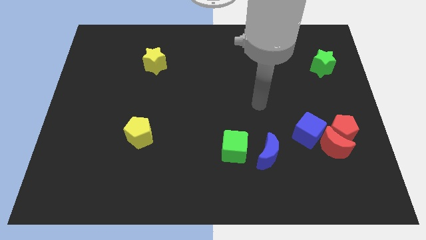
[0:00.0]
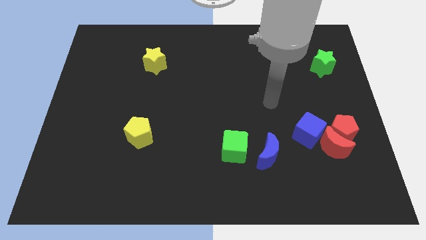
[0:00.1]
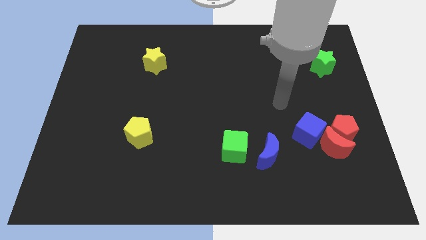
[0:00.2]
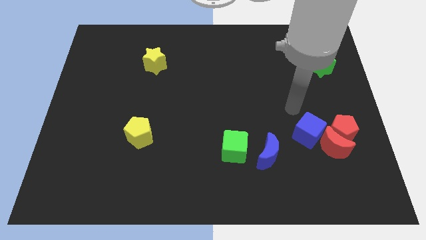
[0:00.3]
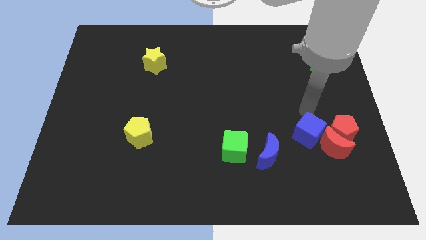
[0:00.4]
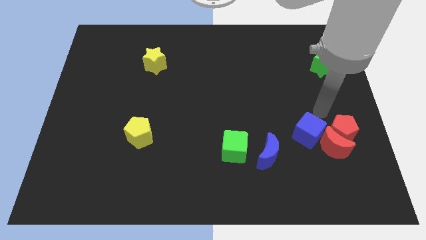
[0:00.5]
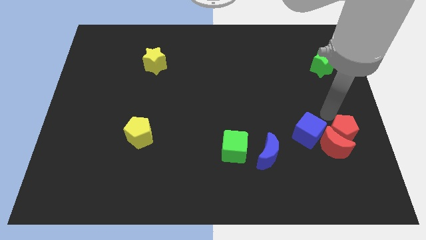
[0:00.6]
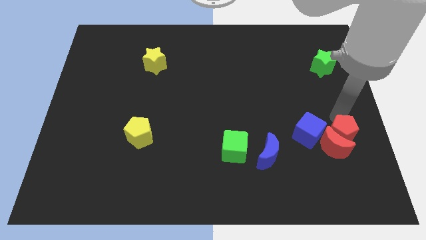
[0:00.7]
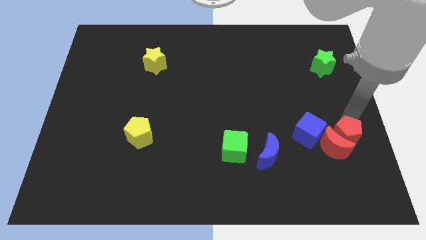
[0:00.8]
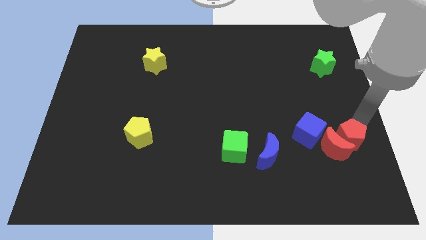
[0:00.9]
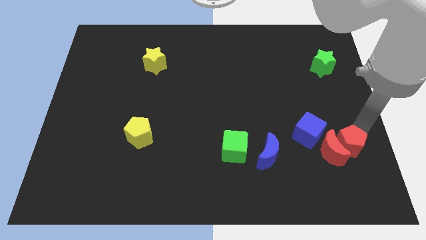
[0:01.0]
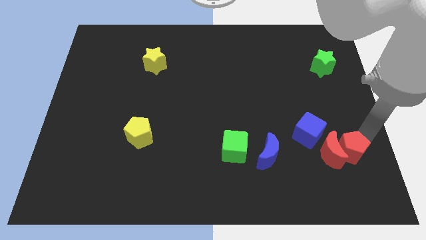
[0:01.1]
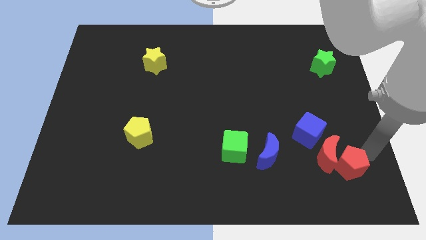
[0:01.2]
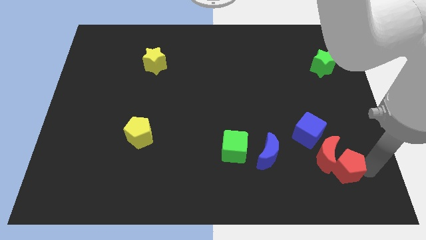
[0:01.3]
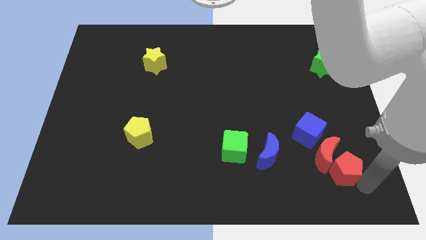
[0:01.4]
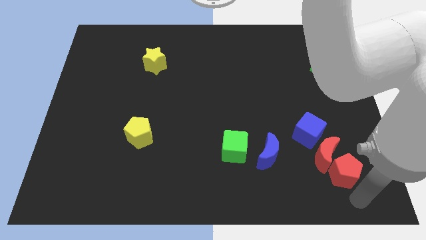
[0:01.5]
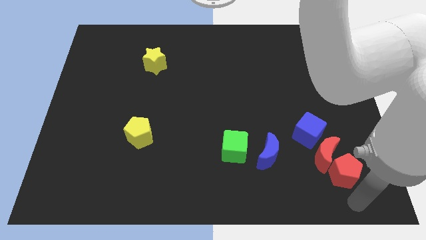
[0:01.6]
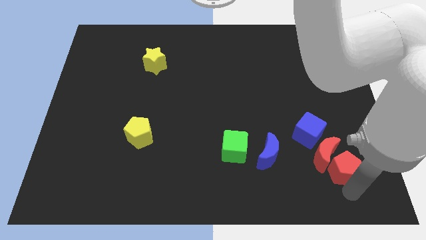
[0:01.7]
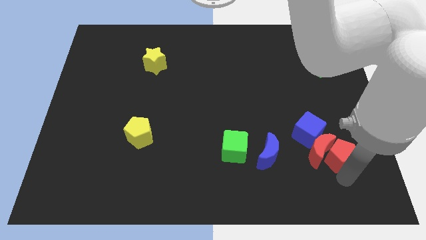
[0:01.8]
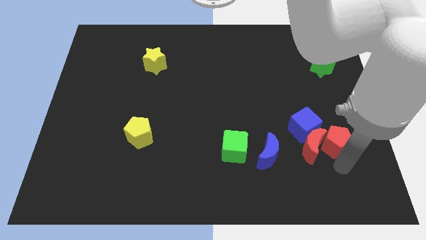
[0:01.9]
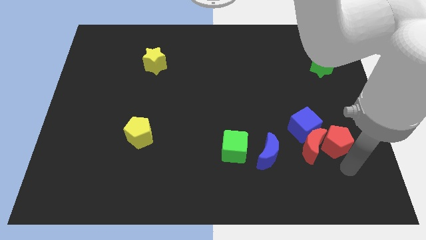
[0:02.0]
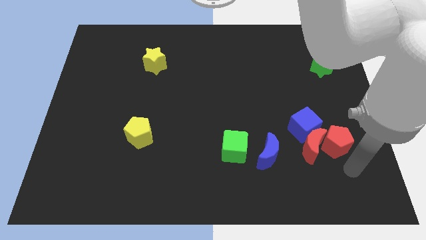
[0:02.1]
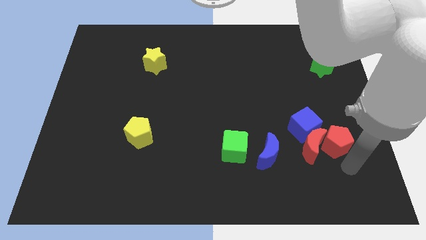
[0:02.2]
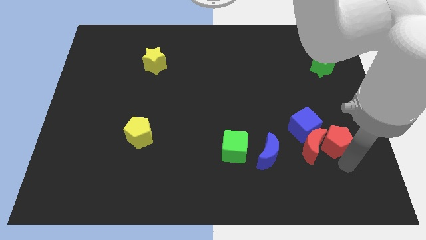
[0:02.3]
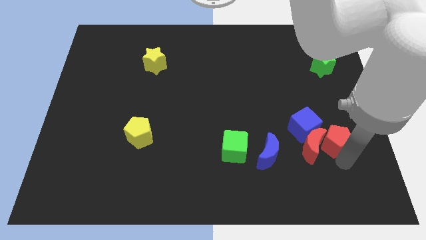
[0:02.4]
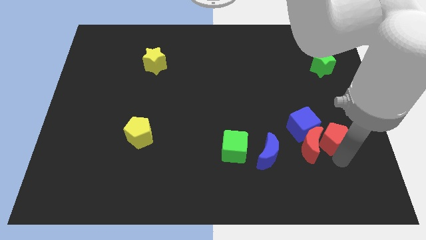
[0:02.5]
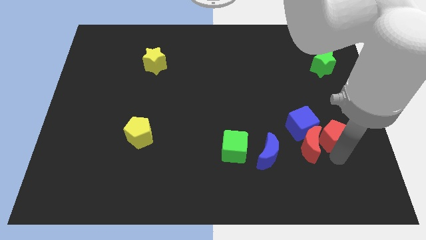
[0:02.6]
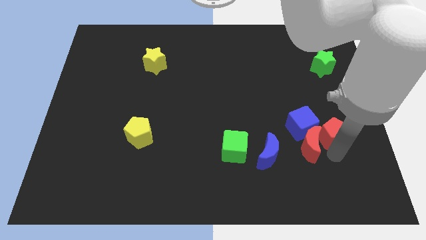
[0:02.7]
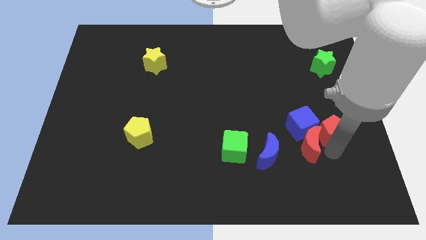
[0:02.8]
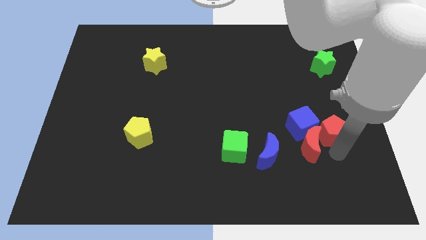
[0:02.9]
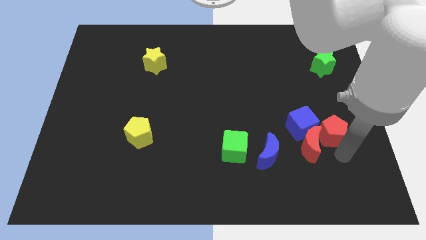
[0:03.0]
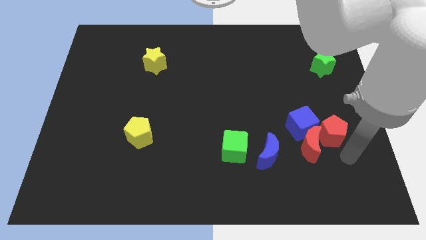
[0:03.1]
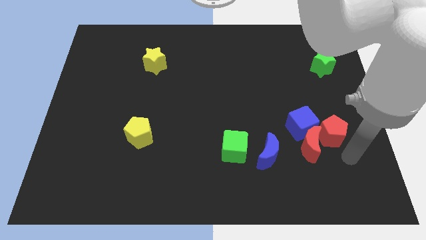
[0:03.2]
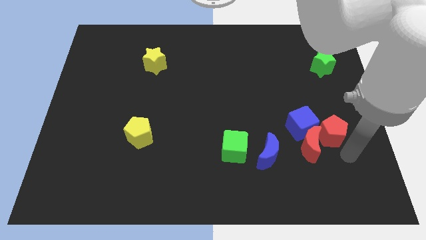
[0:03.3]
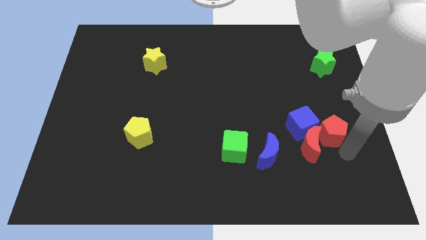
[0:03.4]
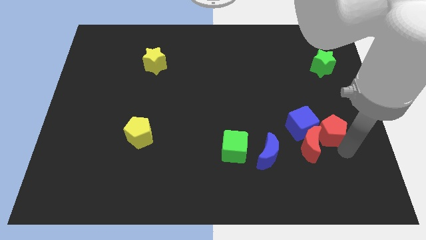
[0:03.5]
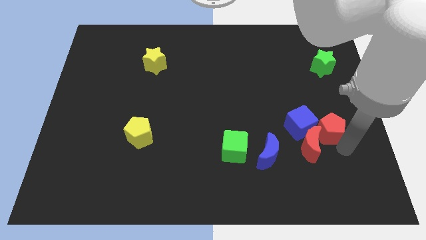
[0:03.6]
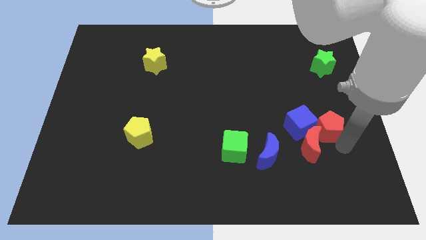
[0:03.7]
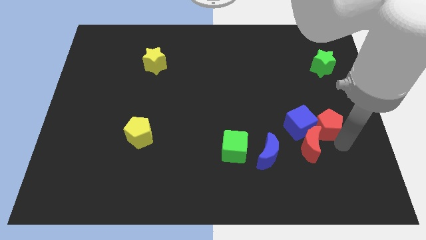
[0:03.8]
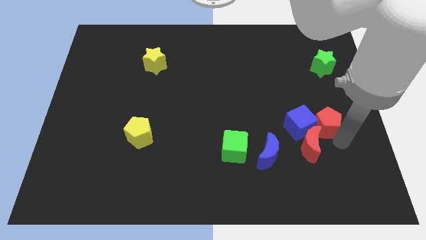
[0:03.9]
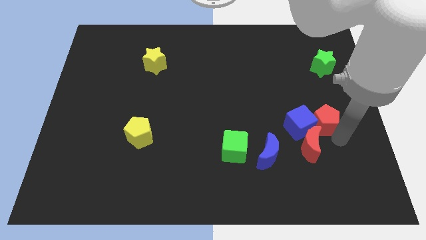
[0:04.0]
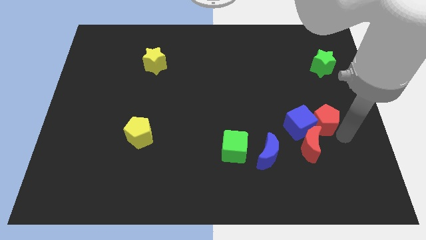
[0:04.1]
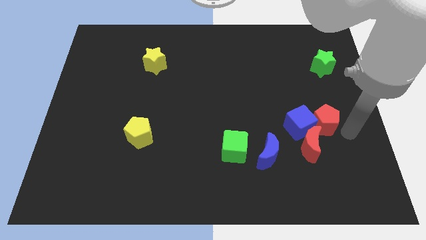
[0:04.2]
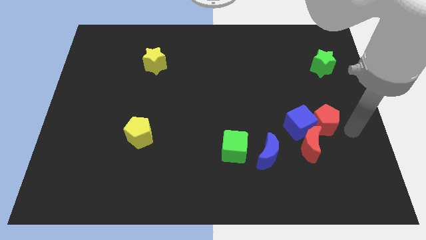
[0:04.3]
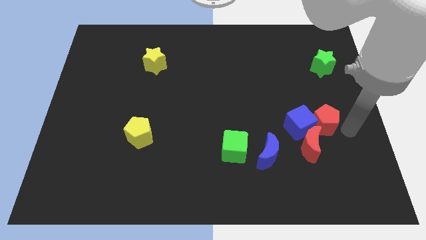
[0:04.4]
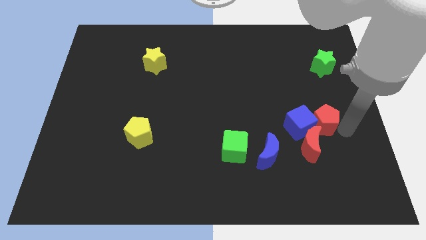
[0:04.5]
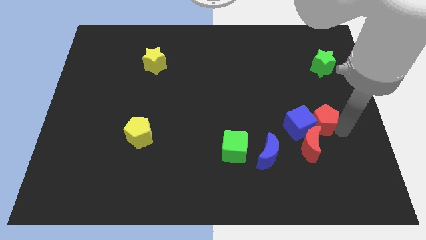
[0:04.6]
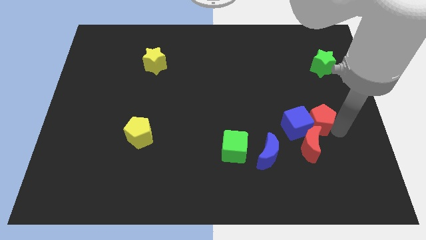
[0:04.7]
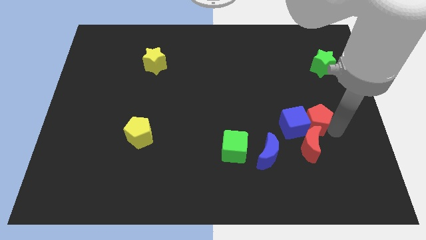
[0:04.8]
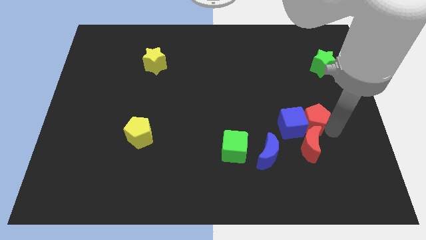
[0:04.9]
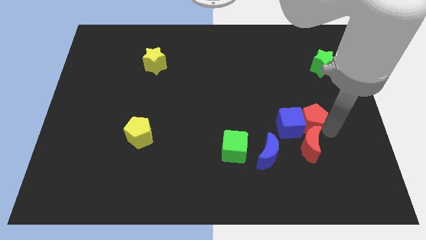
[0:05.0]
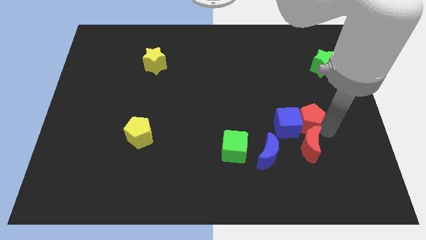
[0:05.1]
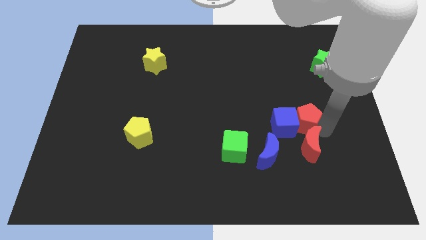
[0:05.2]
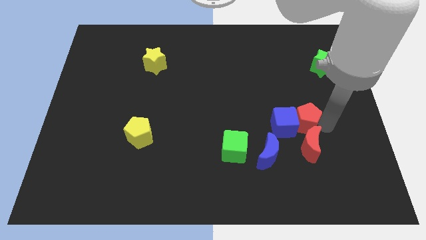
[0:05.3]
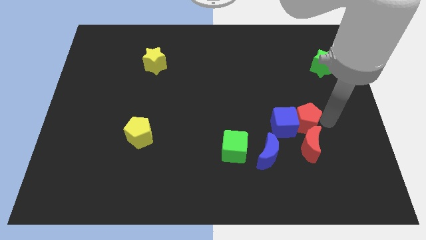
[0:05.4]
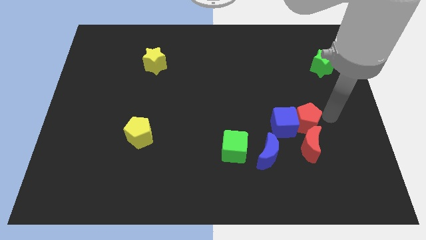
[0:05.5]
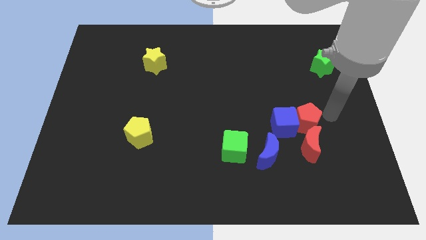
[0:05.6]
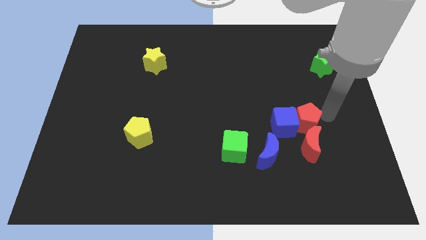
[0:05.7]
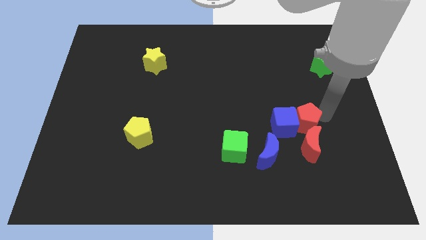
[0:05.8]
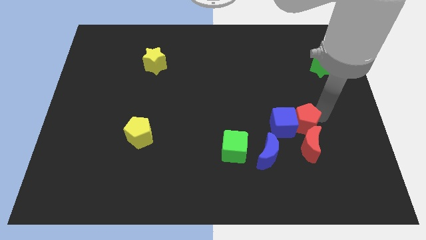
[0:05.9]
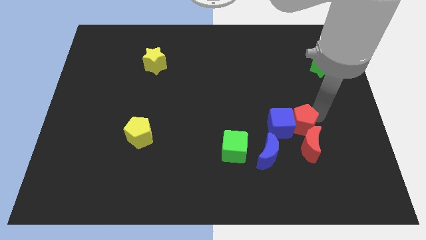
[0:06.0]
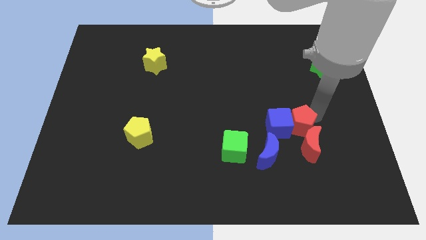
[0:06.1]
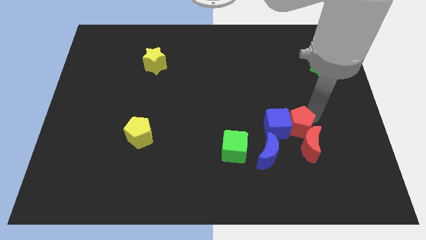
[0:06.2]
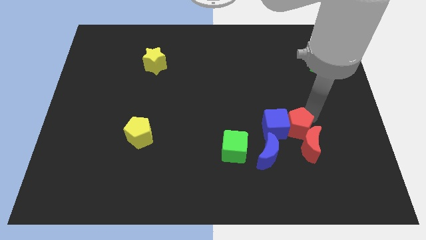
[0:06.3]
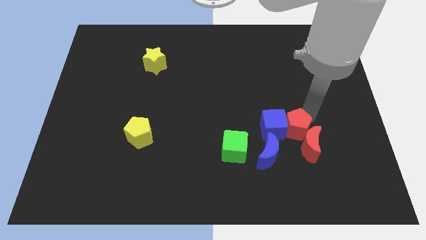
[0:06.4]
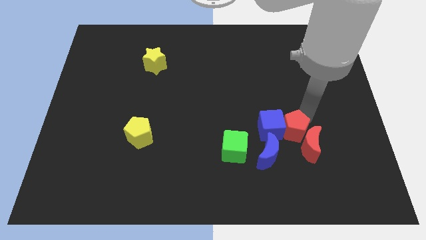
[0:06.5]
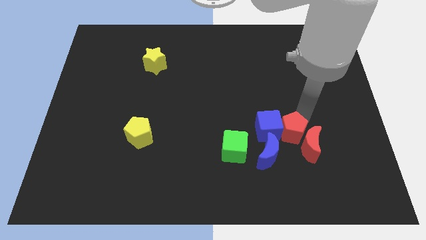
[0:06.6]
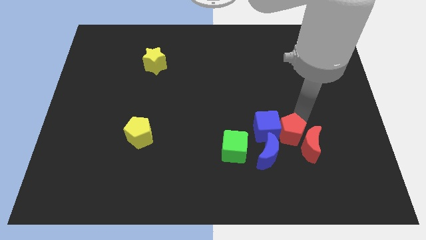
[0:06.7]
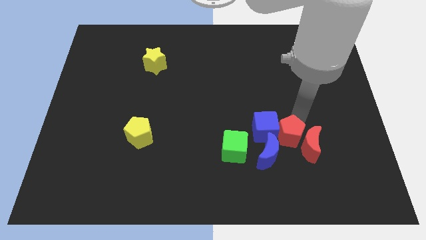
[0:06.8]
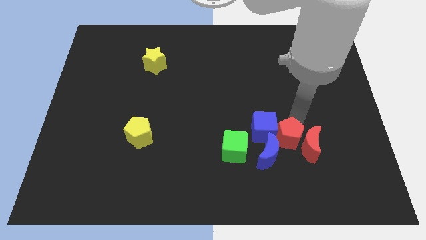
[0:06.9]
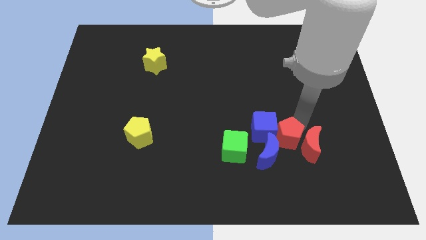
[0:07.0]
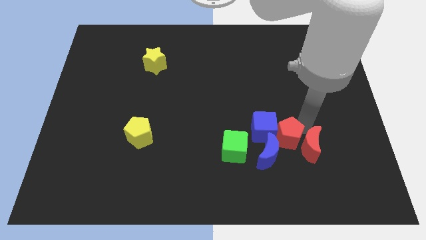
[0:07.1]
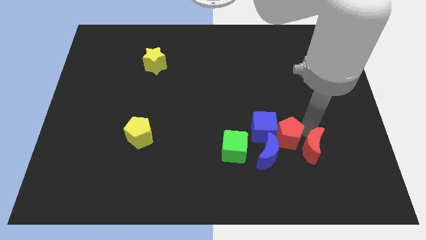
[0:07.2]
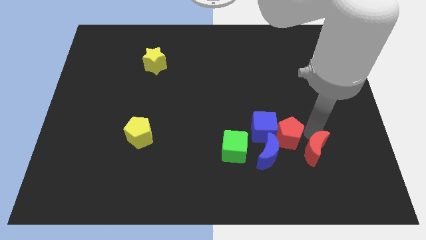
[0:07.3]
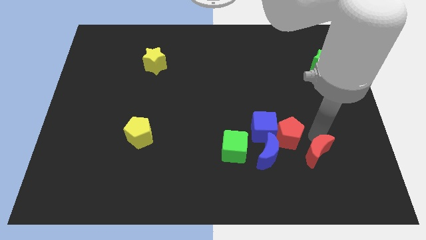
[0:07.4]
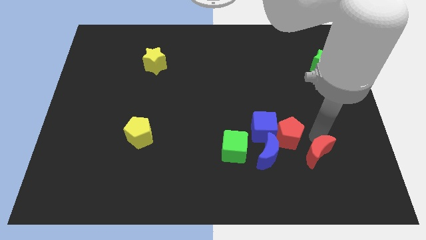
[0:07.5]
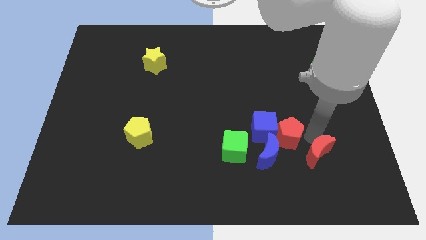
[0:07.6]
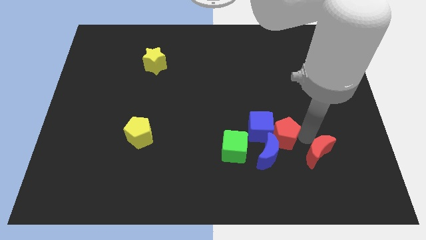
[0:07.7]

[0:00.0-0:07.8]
push the red pentagon to the blue moon
